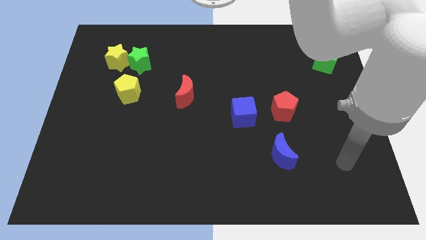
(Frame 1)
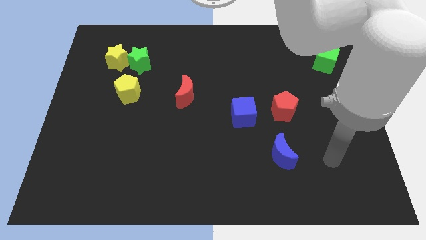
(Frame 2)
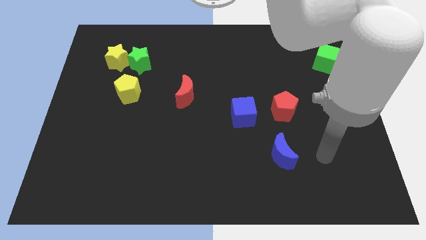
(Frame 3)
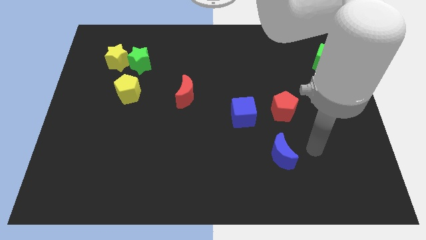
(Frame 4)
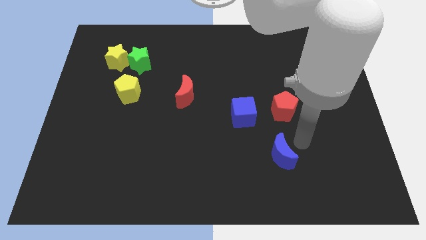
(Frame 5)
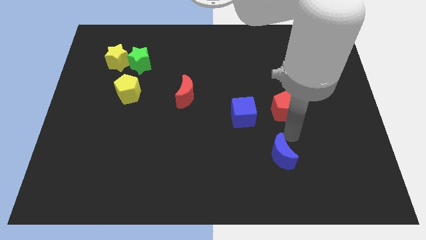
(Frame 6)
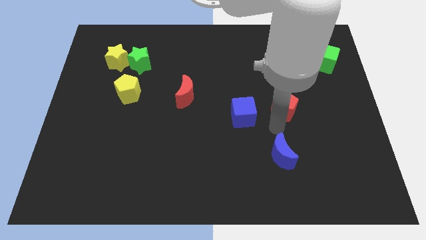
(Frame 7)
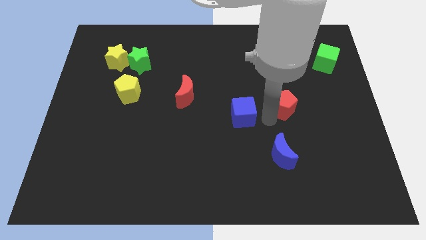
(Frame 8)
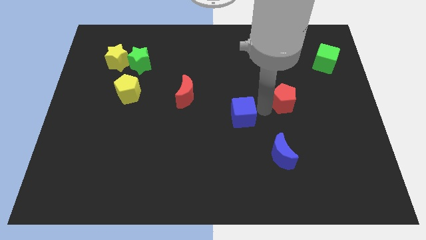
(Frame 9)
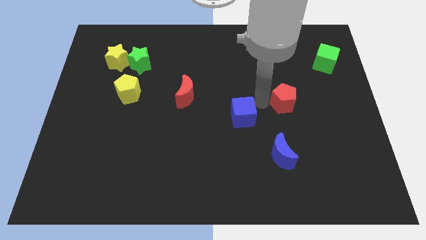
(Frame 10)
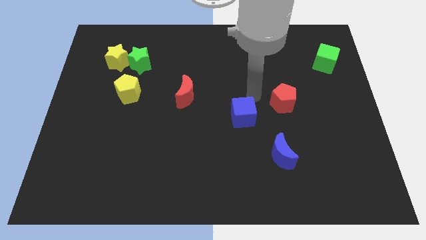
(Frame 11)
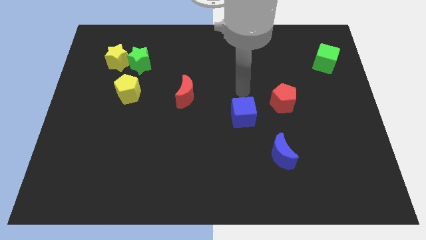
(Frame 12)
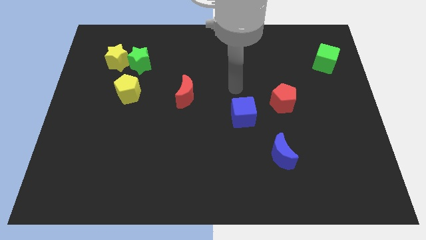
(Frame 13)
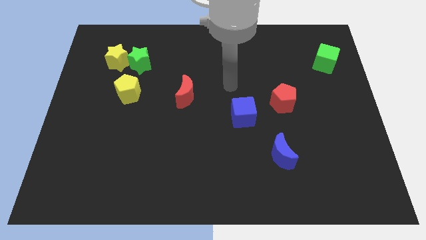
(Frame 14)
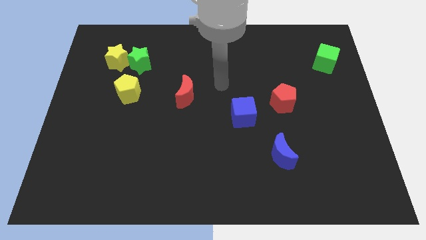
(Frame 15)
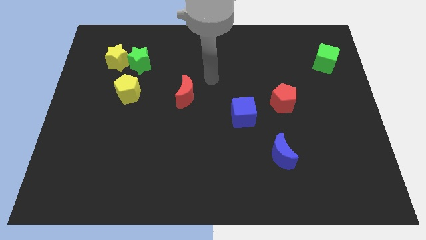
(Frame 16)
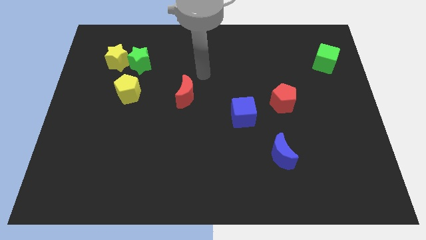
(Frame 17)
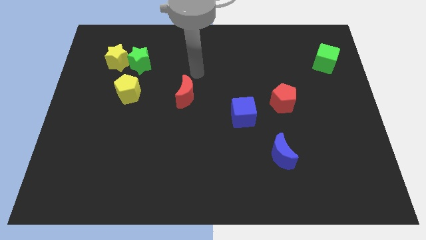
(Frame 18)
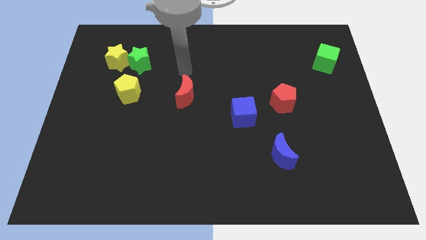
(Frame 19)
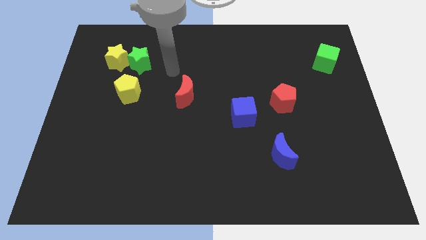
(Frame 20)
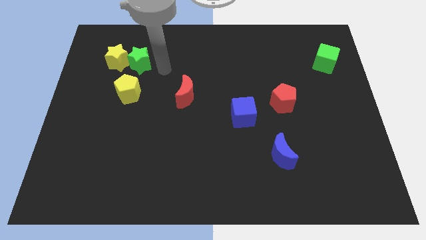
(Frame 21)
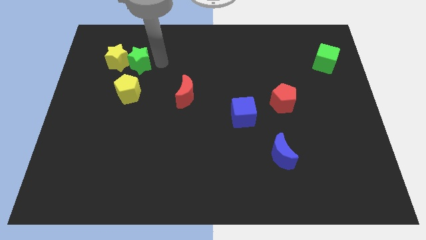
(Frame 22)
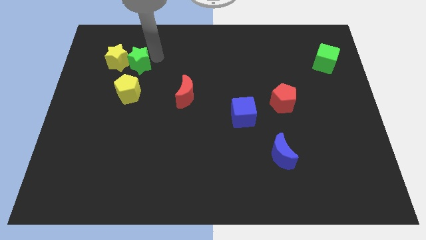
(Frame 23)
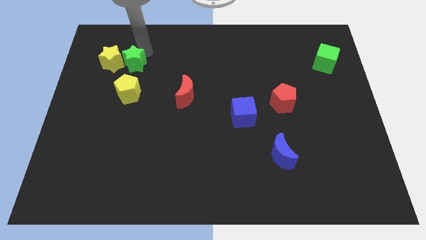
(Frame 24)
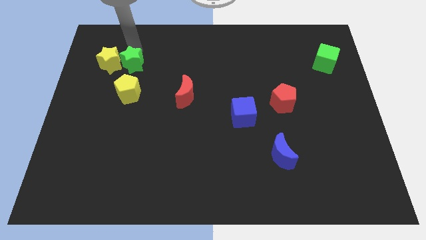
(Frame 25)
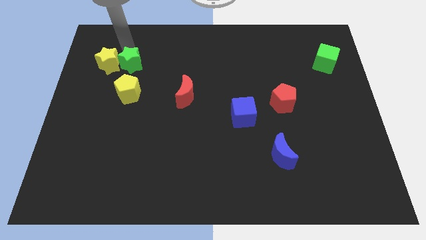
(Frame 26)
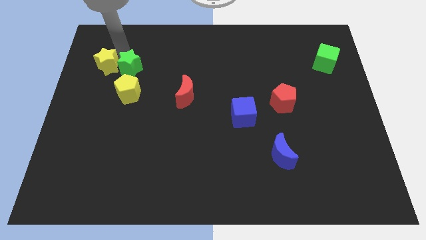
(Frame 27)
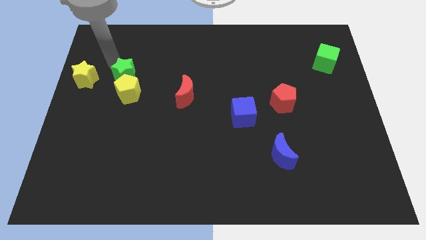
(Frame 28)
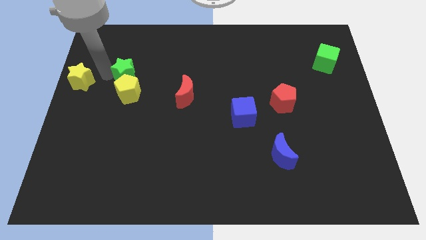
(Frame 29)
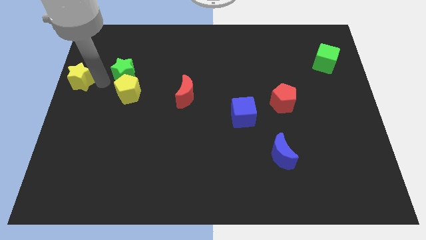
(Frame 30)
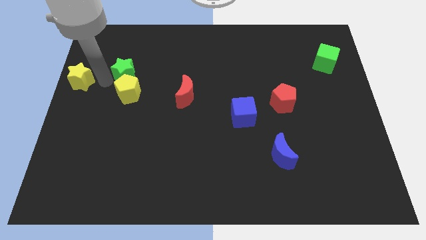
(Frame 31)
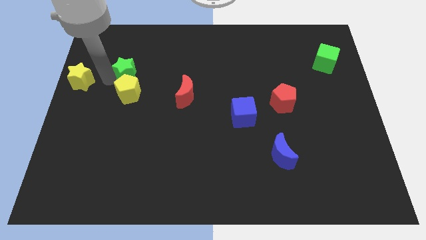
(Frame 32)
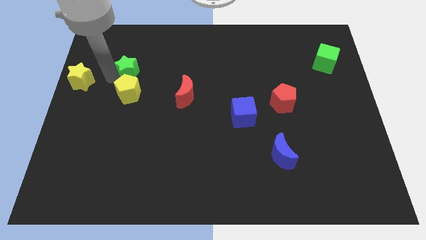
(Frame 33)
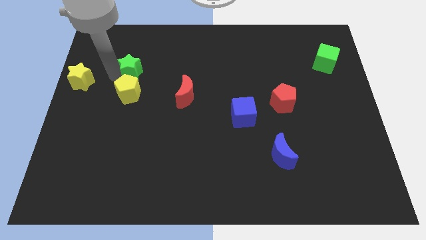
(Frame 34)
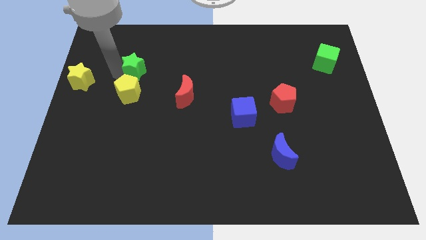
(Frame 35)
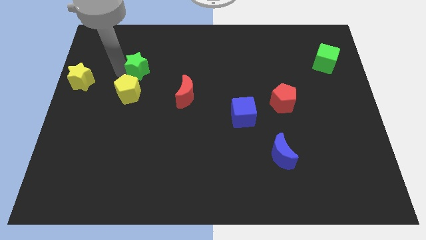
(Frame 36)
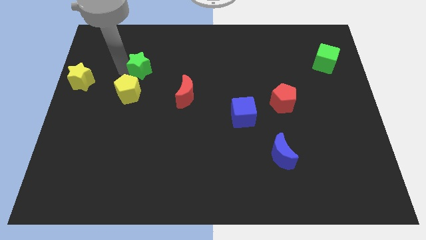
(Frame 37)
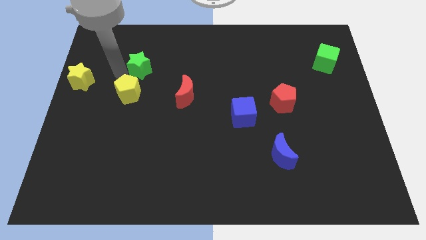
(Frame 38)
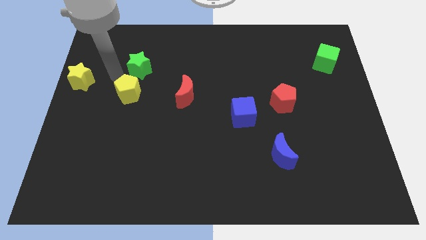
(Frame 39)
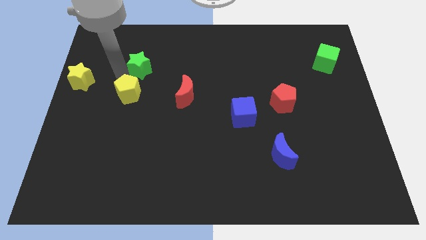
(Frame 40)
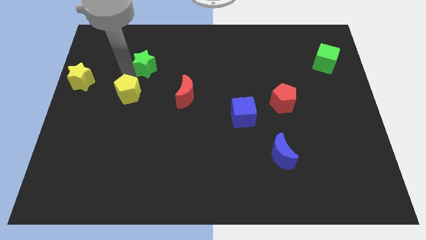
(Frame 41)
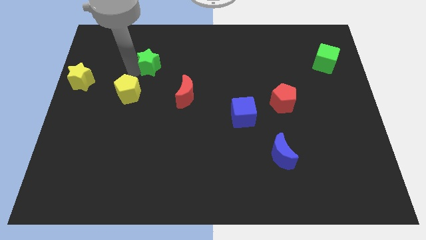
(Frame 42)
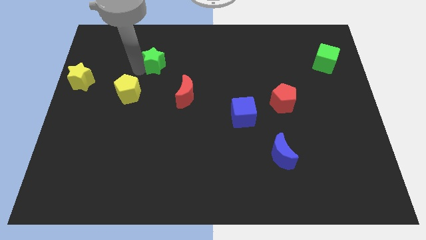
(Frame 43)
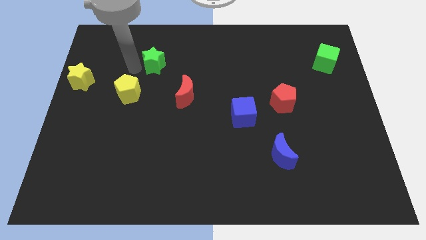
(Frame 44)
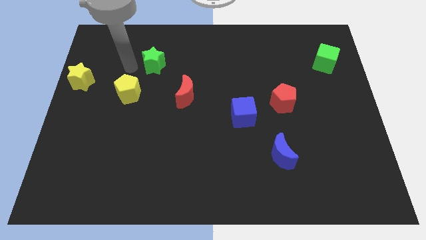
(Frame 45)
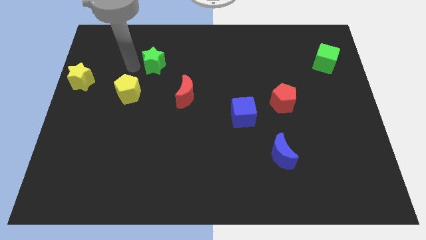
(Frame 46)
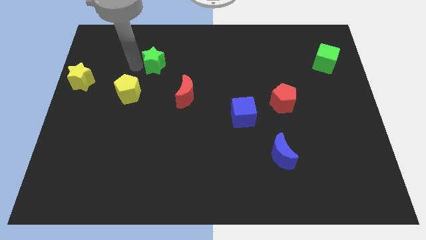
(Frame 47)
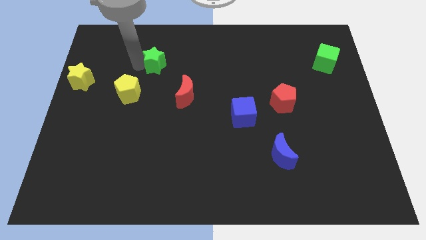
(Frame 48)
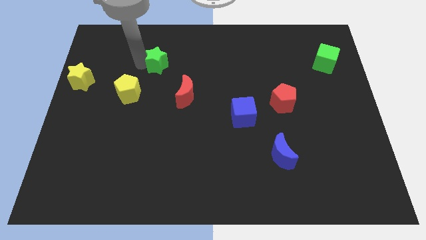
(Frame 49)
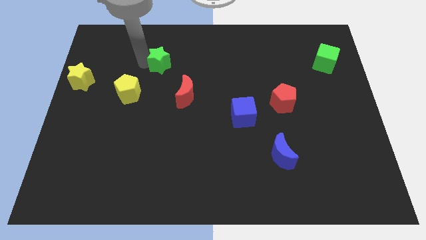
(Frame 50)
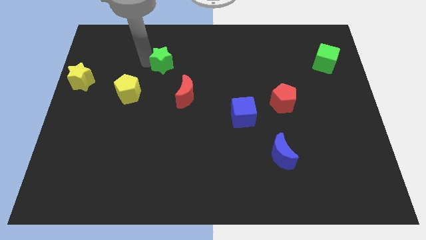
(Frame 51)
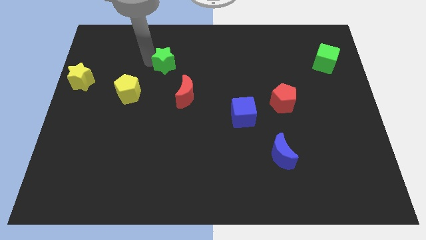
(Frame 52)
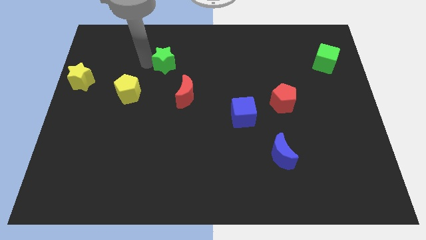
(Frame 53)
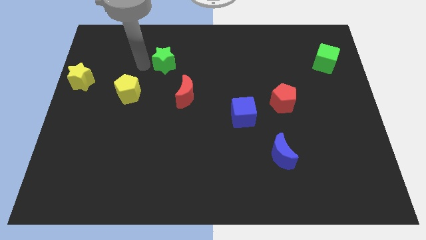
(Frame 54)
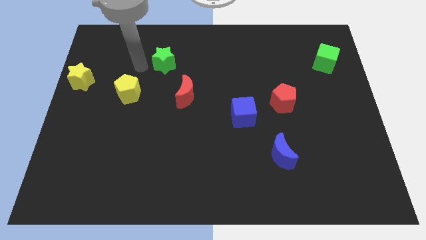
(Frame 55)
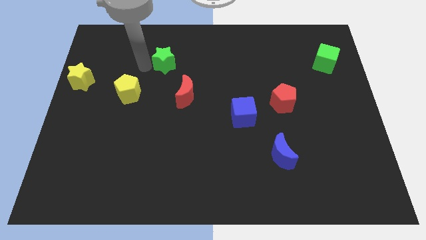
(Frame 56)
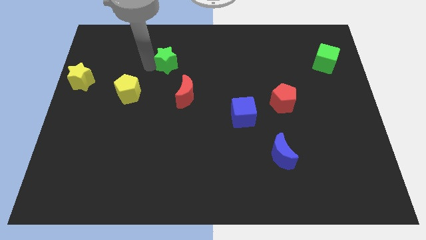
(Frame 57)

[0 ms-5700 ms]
move the green star to the right somewhat

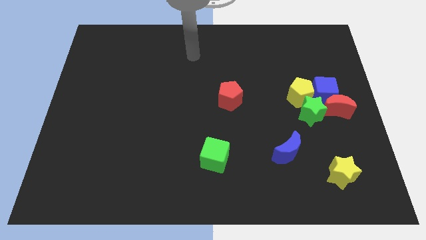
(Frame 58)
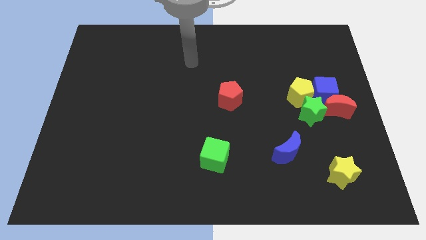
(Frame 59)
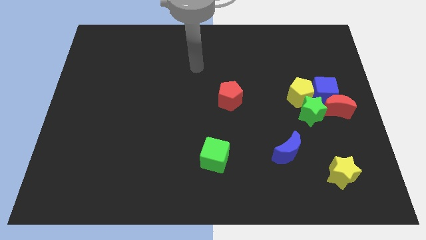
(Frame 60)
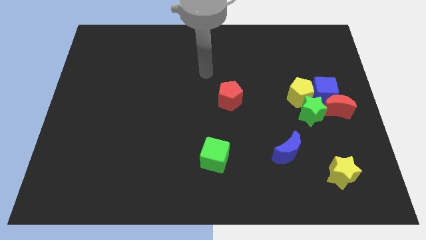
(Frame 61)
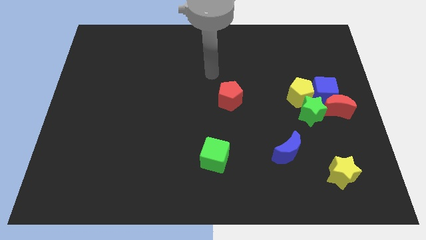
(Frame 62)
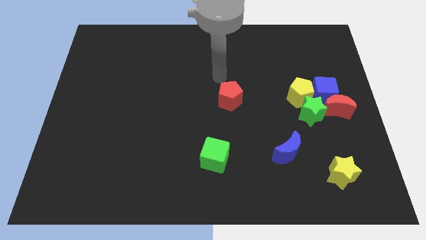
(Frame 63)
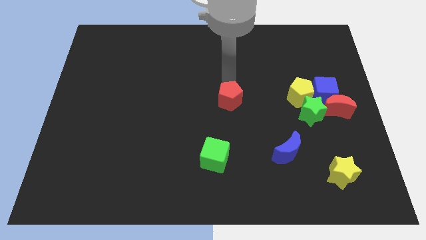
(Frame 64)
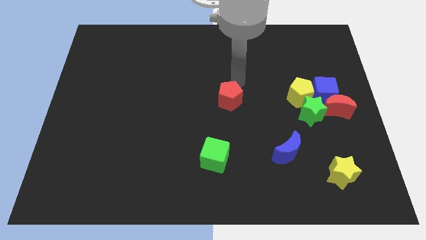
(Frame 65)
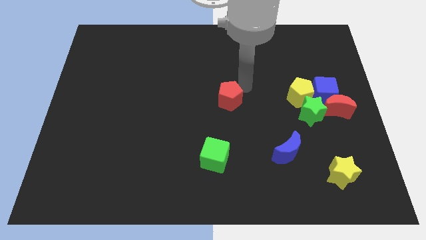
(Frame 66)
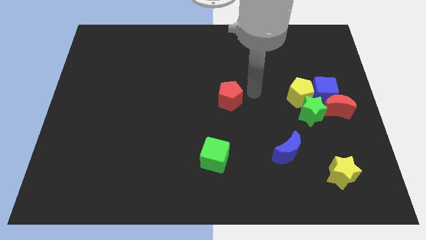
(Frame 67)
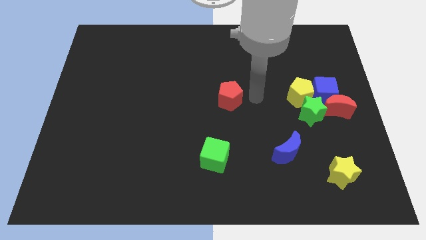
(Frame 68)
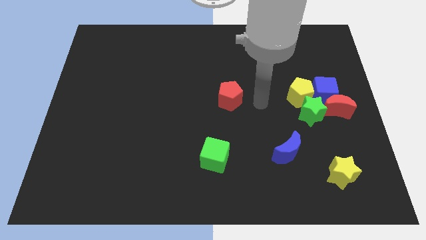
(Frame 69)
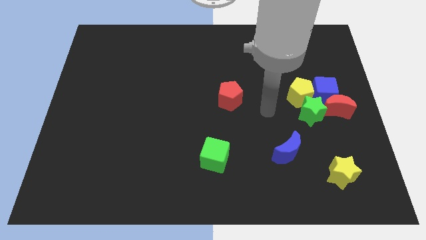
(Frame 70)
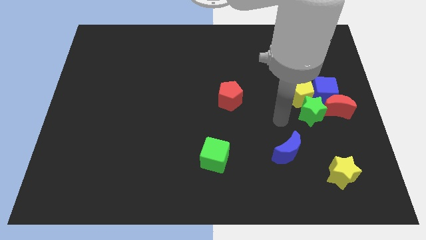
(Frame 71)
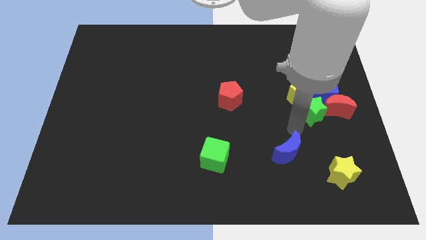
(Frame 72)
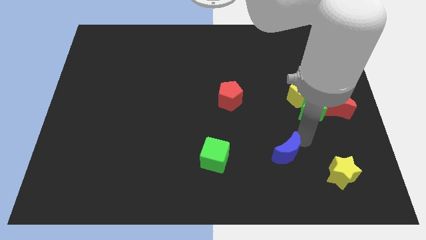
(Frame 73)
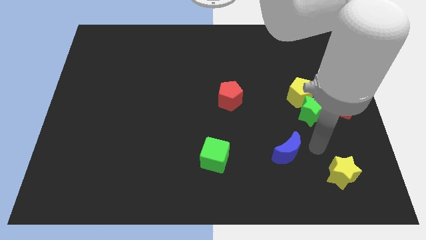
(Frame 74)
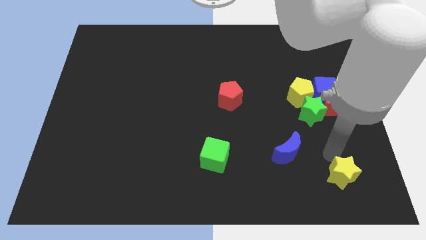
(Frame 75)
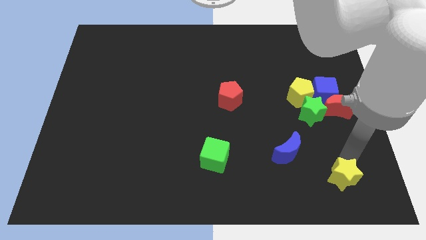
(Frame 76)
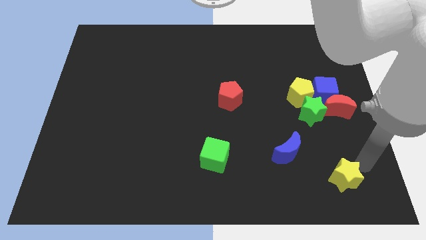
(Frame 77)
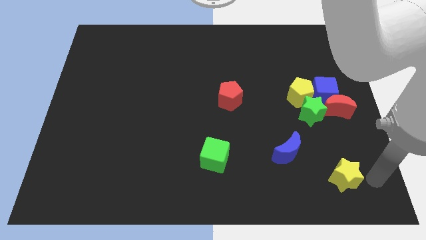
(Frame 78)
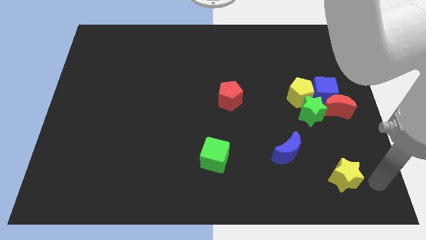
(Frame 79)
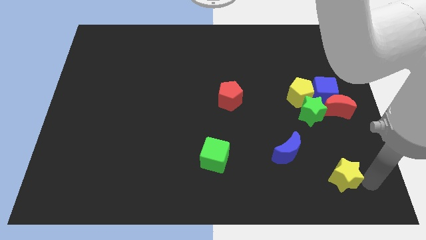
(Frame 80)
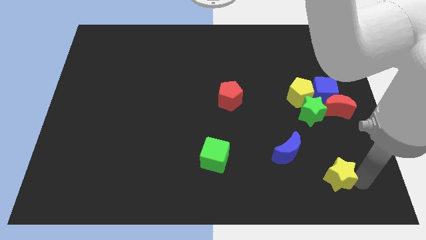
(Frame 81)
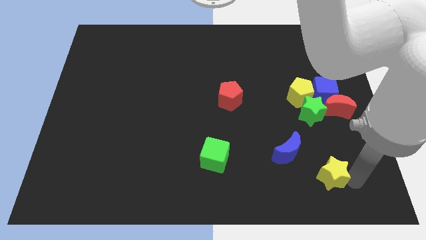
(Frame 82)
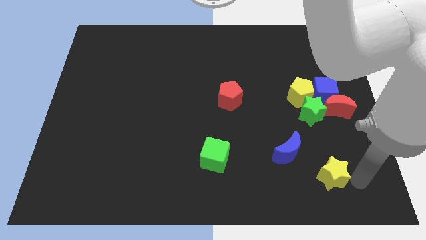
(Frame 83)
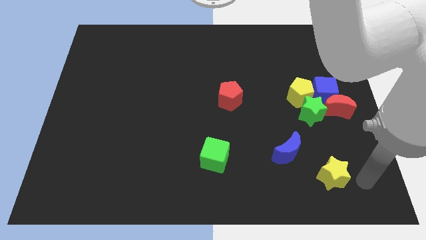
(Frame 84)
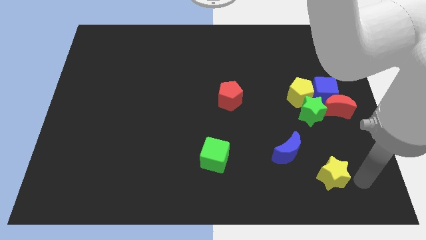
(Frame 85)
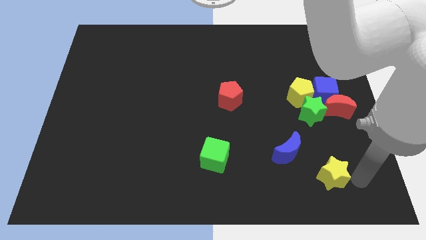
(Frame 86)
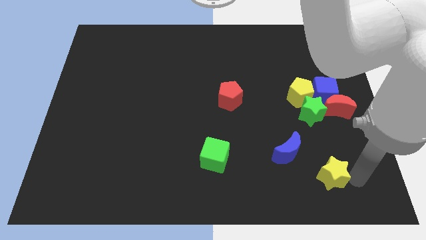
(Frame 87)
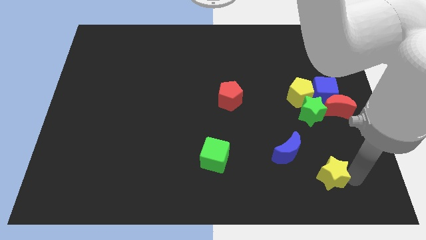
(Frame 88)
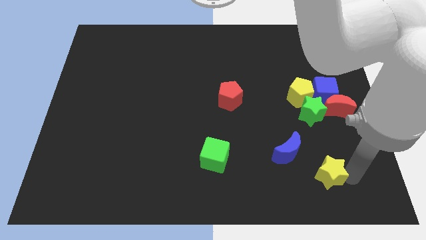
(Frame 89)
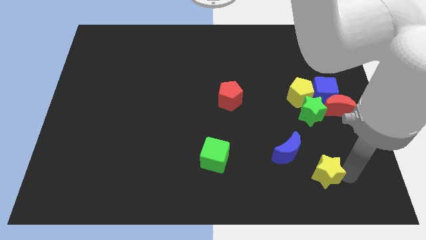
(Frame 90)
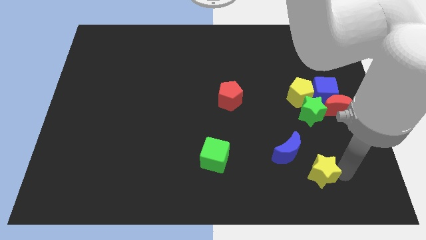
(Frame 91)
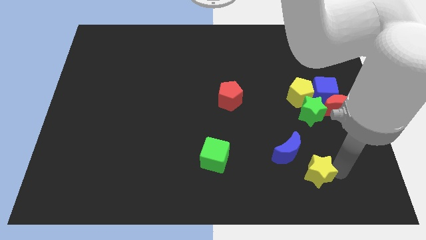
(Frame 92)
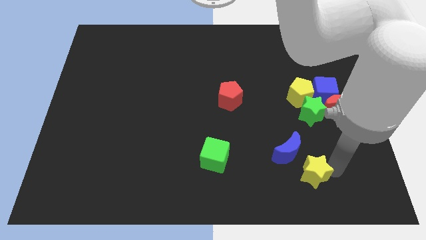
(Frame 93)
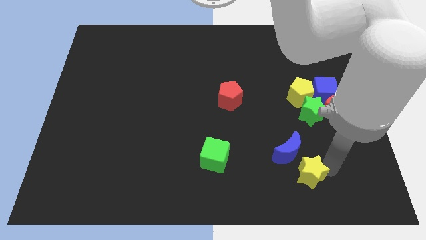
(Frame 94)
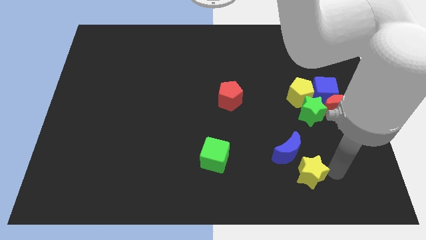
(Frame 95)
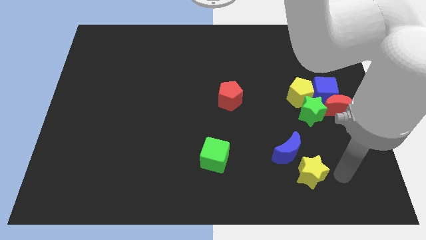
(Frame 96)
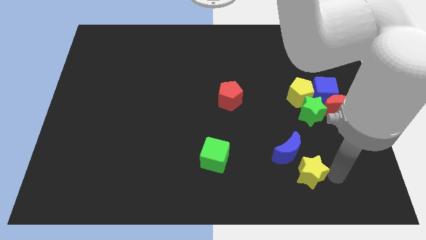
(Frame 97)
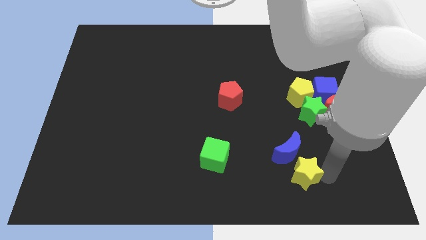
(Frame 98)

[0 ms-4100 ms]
move the yellow star slightly left
